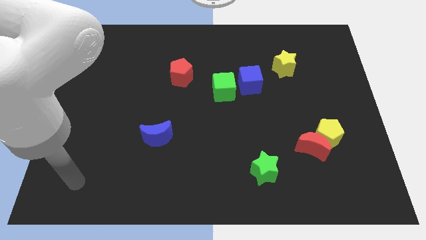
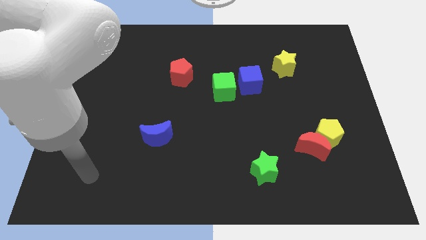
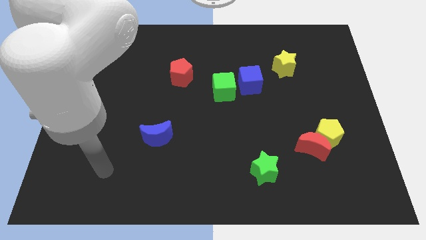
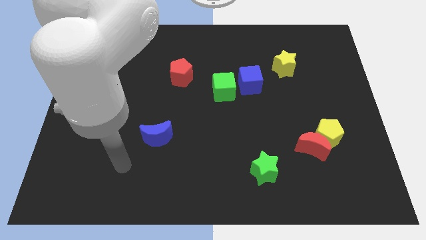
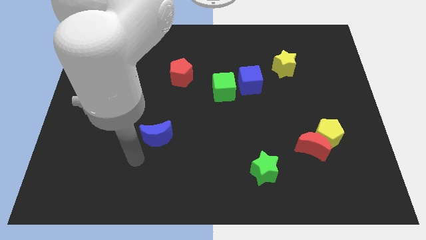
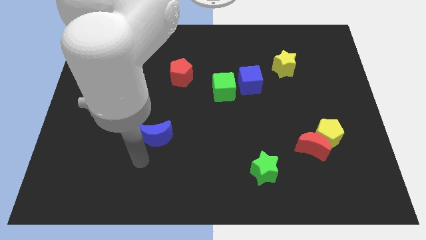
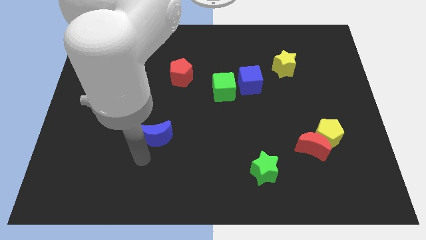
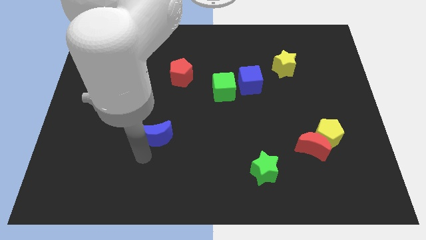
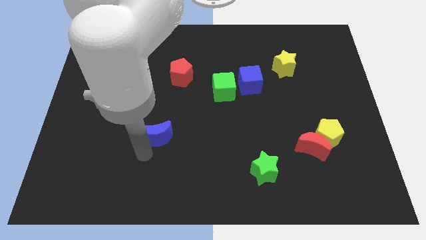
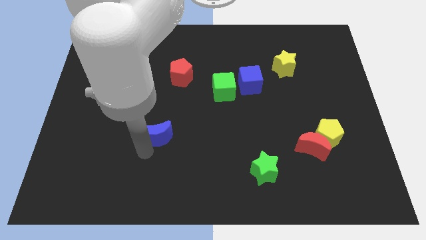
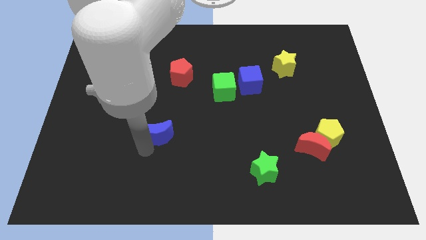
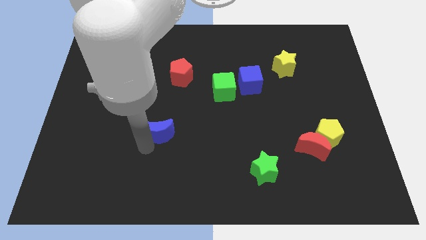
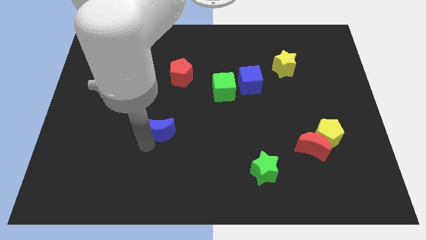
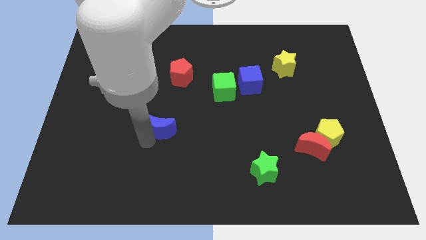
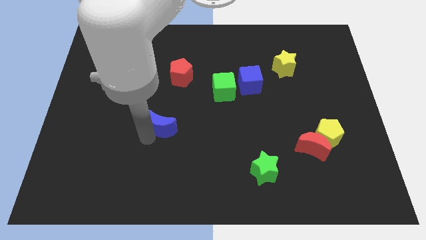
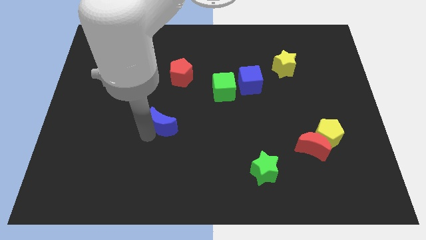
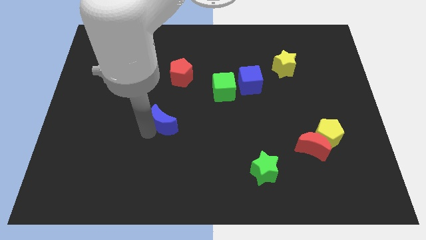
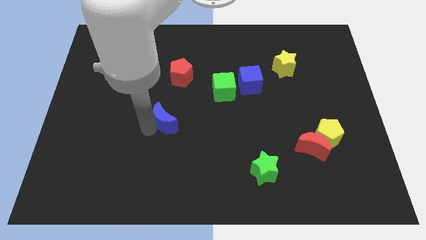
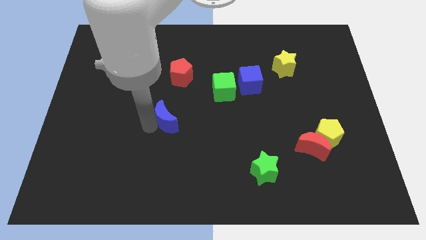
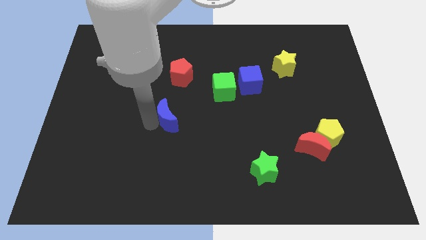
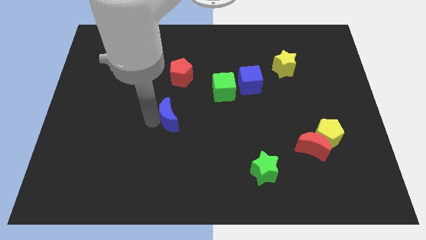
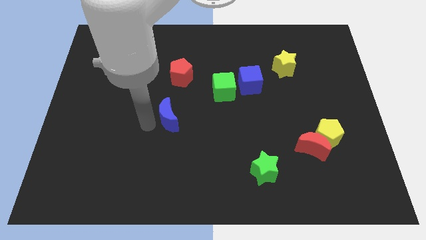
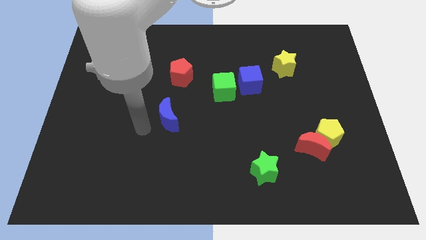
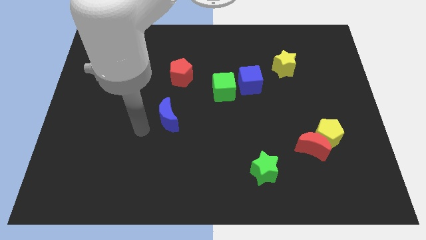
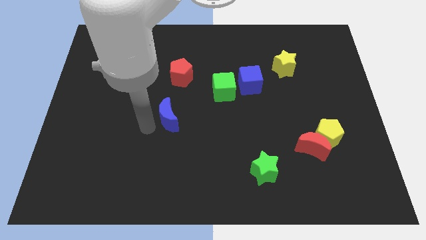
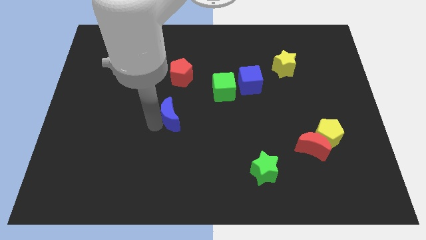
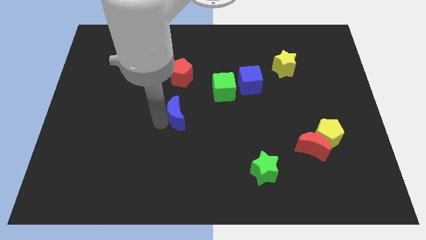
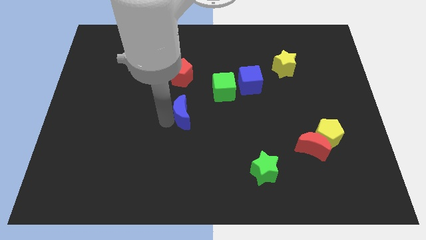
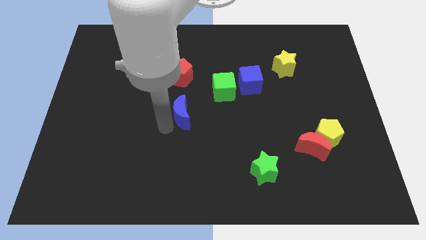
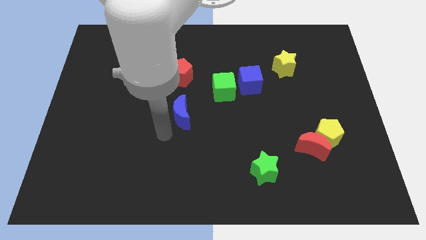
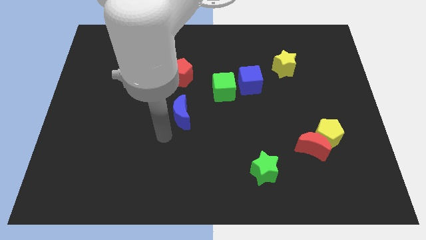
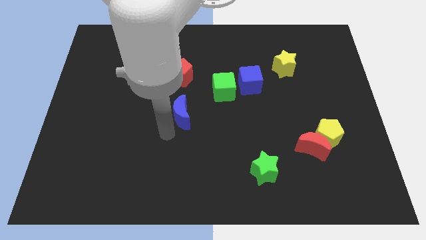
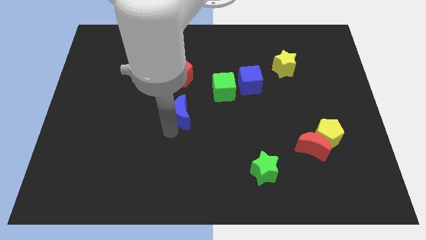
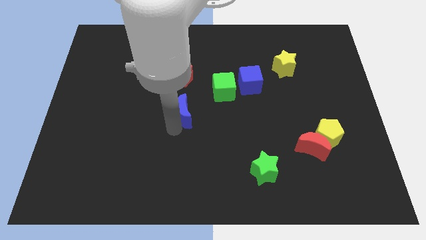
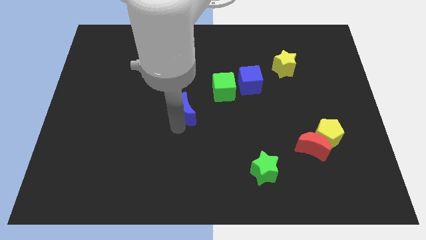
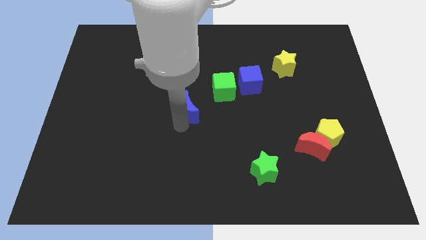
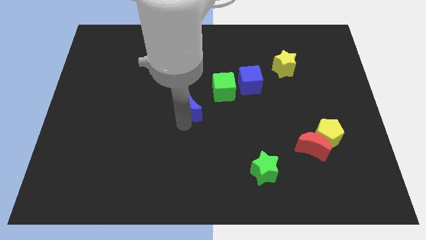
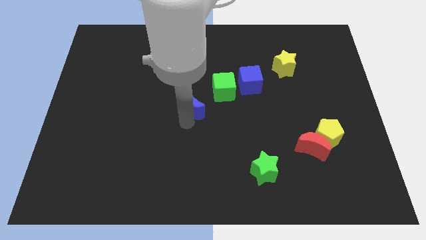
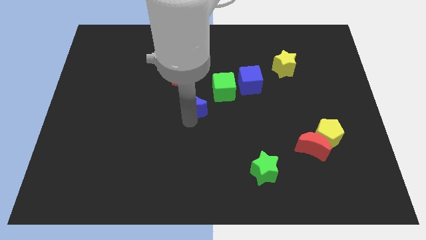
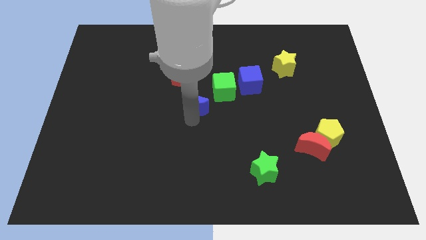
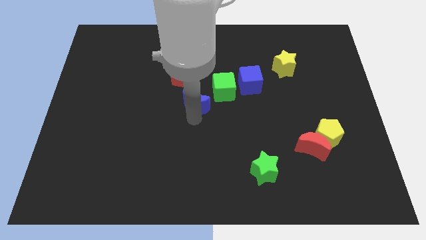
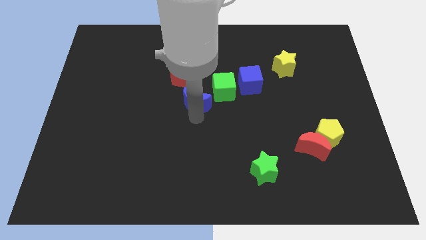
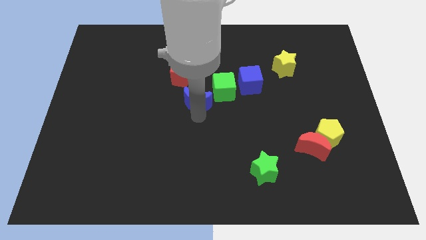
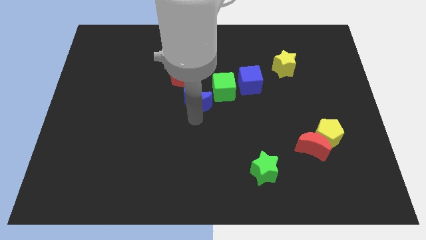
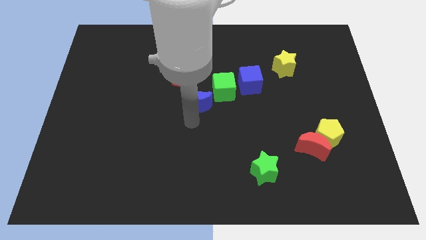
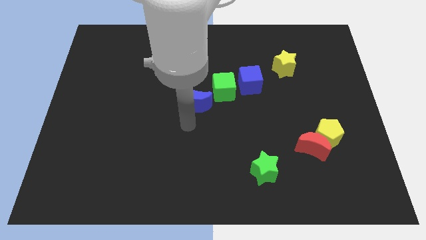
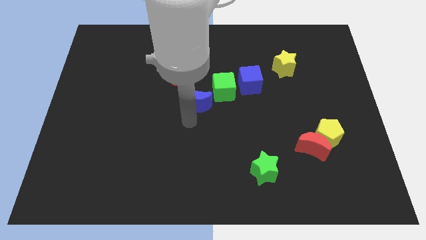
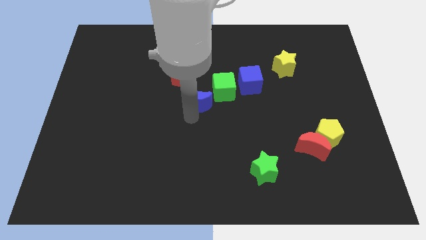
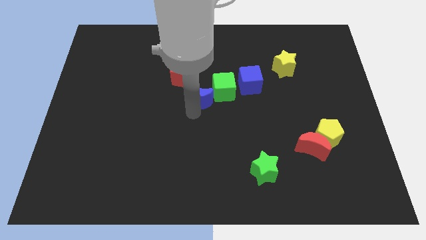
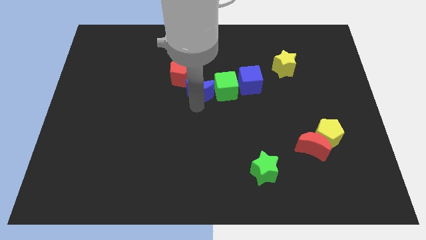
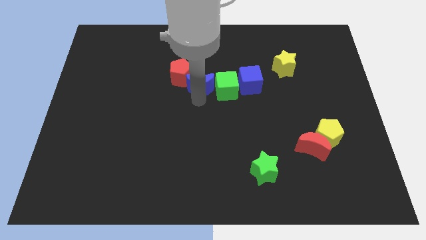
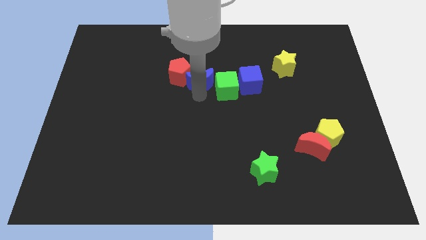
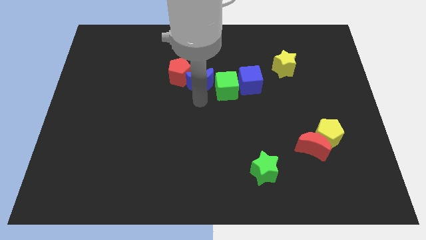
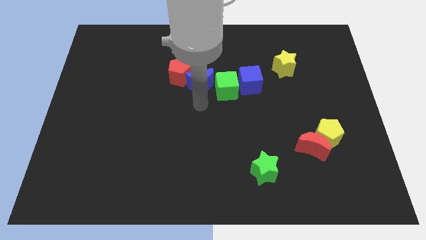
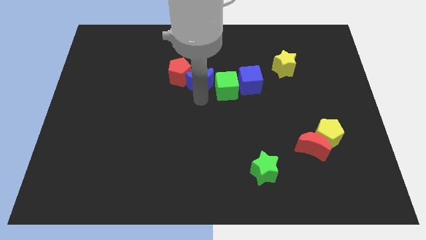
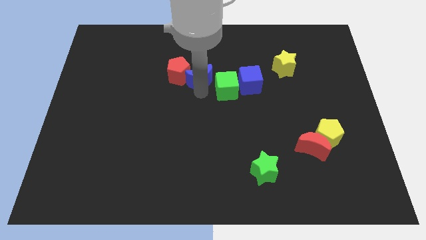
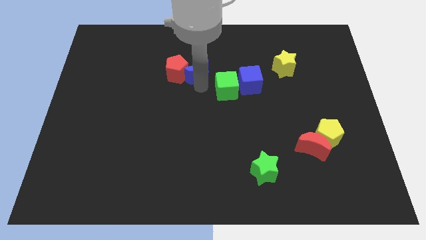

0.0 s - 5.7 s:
put the blue moon diagonally up and to the right of the red pentagon
